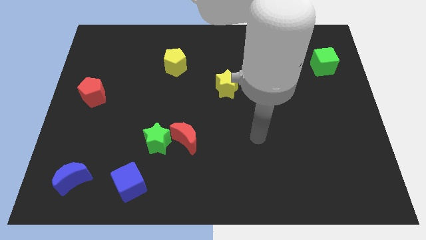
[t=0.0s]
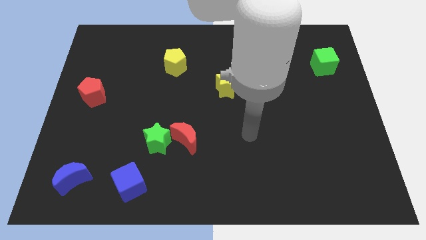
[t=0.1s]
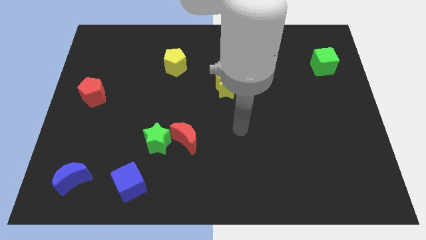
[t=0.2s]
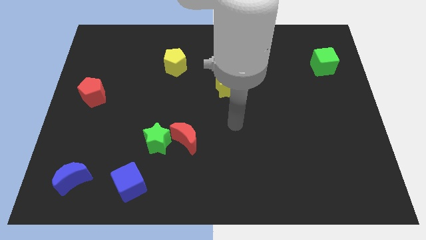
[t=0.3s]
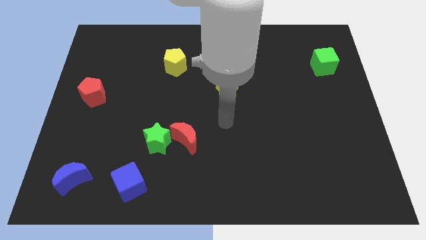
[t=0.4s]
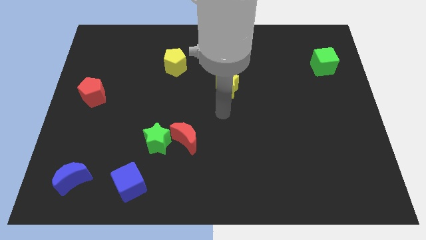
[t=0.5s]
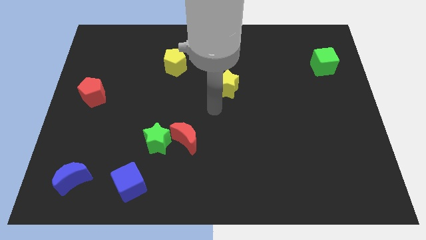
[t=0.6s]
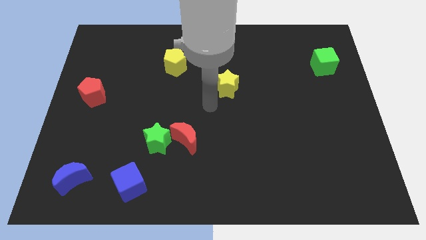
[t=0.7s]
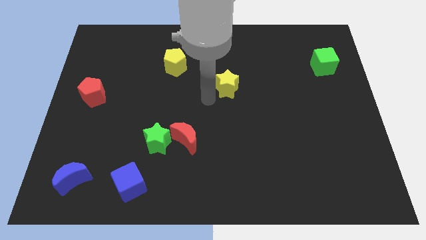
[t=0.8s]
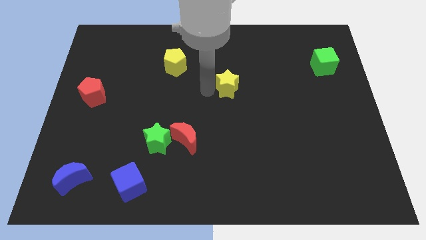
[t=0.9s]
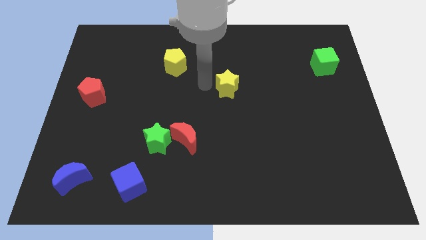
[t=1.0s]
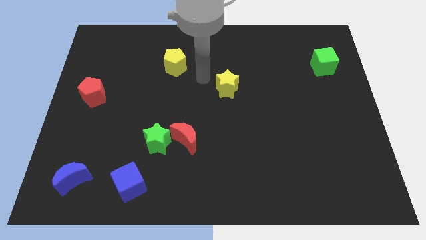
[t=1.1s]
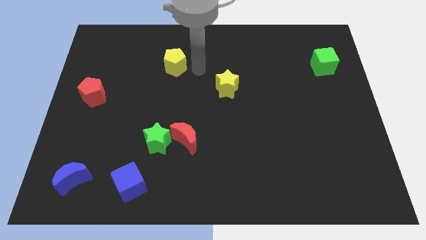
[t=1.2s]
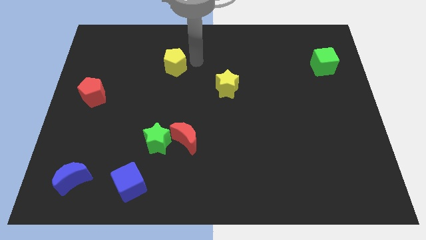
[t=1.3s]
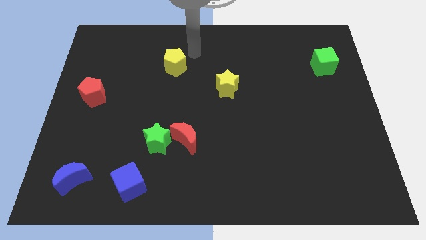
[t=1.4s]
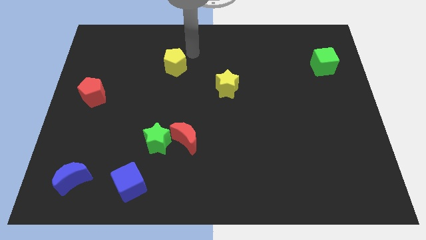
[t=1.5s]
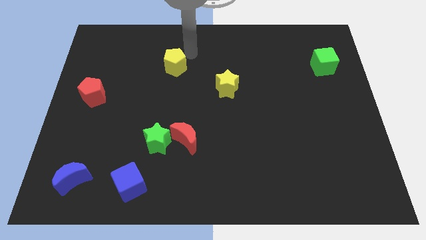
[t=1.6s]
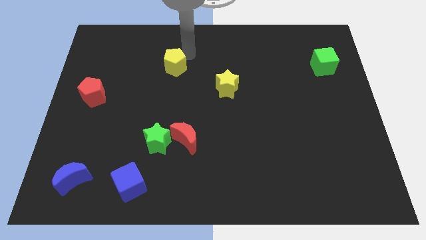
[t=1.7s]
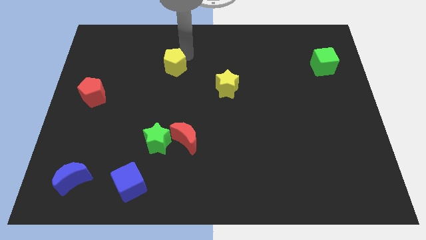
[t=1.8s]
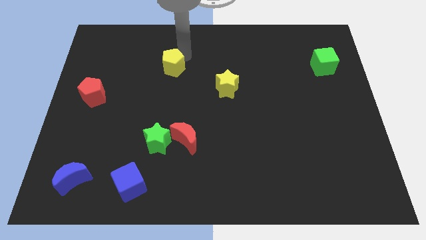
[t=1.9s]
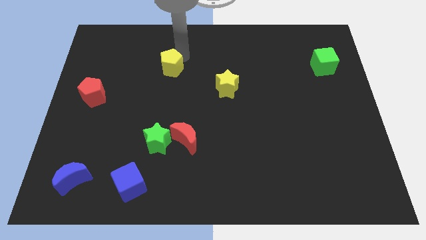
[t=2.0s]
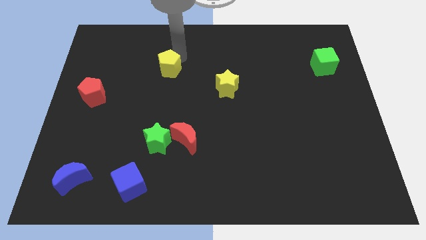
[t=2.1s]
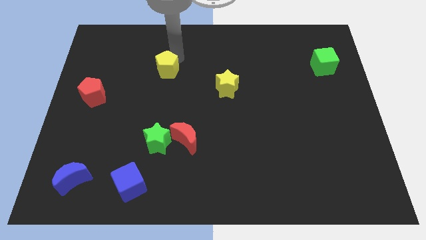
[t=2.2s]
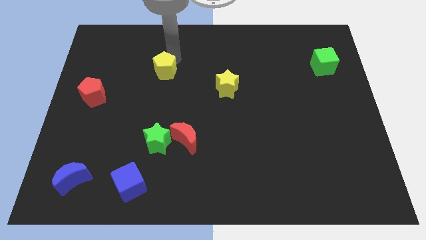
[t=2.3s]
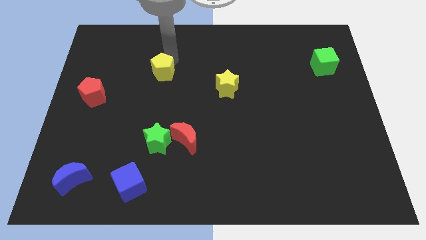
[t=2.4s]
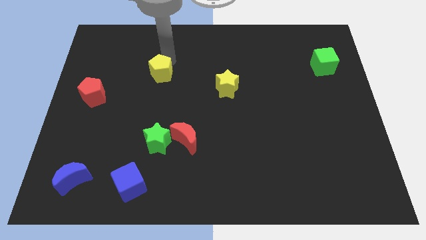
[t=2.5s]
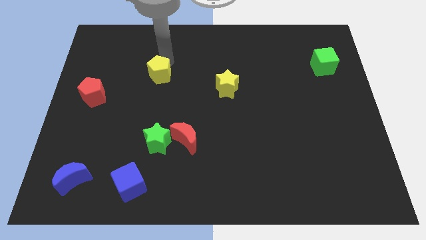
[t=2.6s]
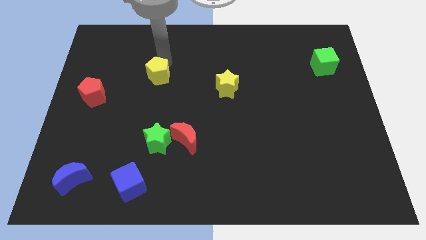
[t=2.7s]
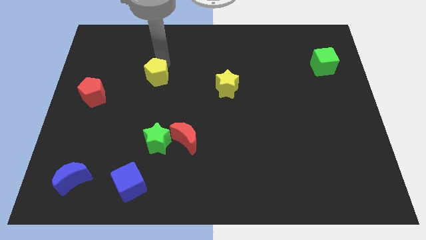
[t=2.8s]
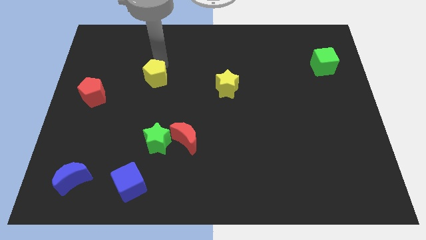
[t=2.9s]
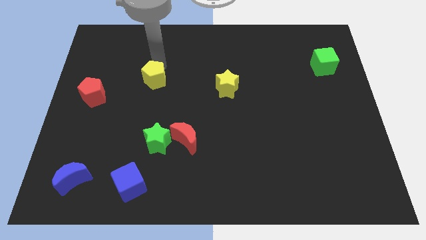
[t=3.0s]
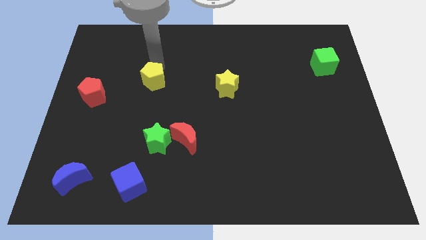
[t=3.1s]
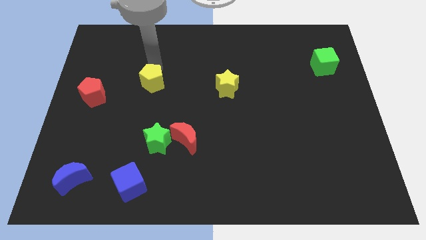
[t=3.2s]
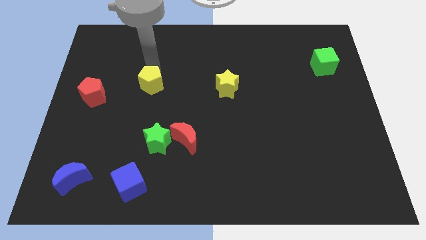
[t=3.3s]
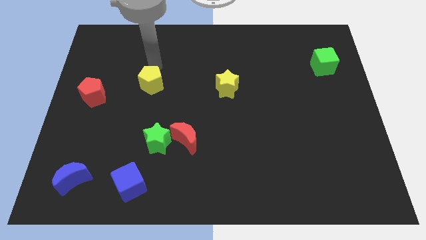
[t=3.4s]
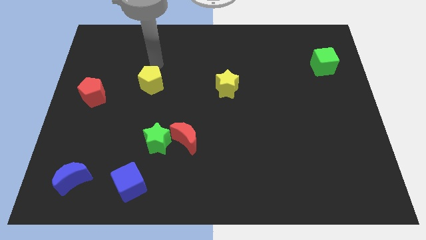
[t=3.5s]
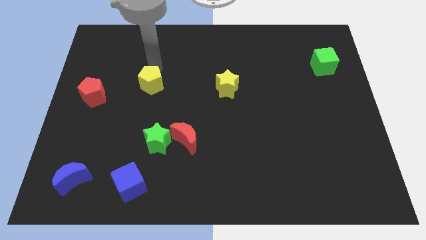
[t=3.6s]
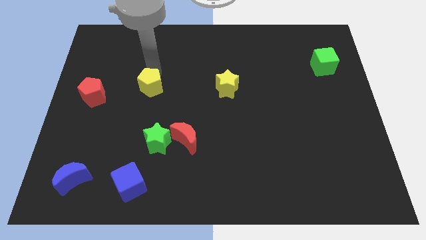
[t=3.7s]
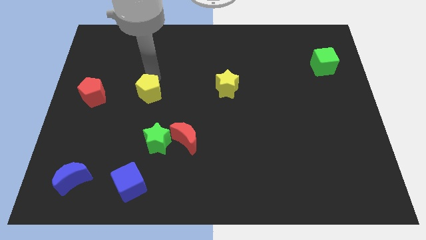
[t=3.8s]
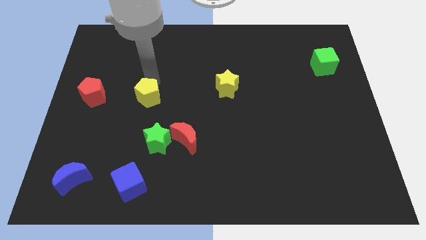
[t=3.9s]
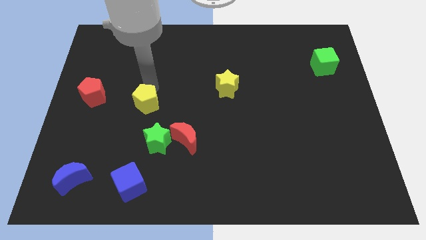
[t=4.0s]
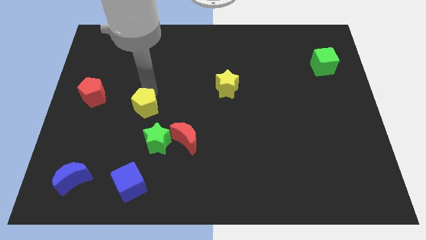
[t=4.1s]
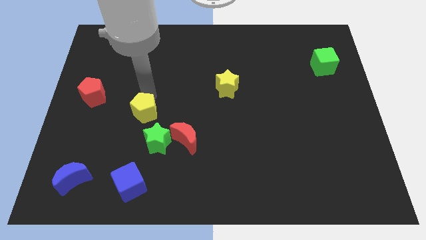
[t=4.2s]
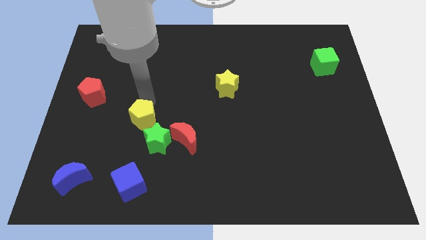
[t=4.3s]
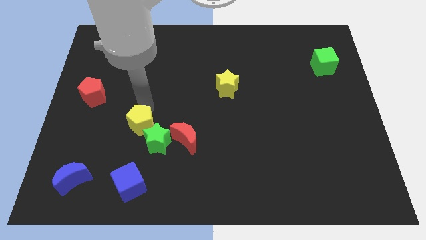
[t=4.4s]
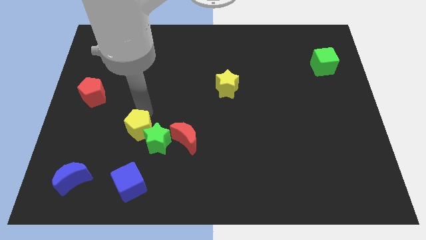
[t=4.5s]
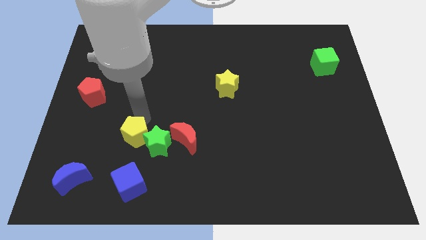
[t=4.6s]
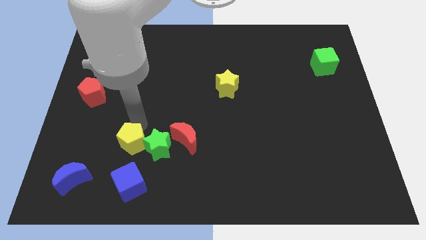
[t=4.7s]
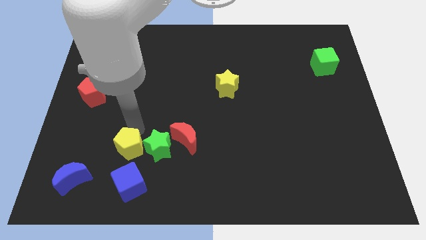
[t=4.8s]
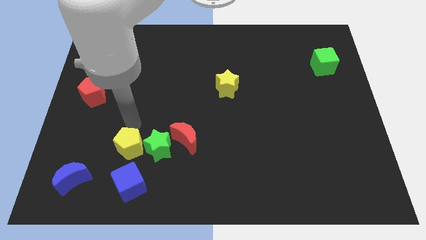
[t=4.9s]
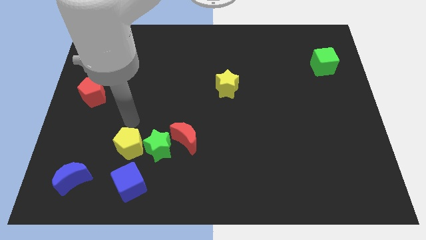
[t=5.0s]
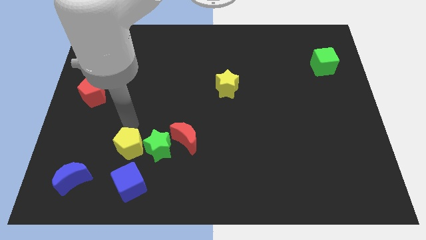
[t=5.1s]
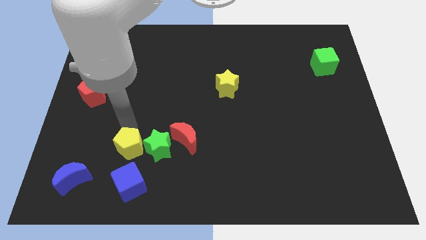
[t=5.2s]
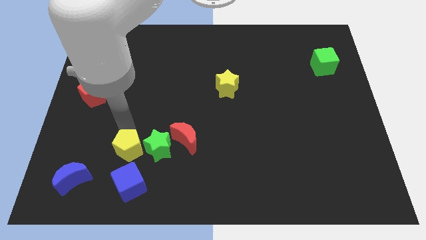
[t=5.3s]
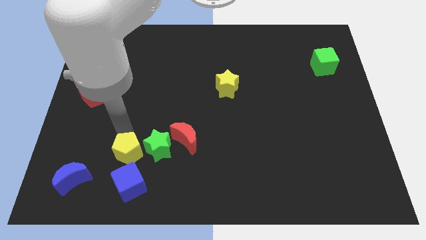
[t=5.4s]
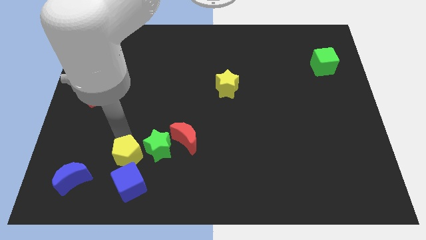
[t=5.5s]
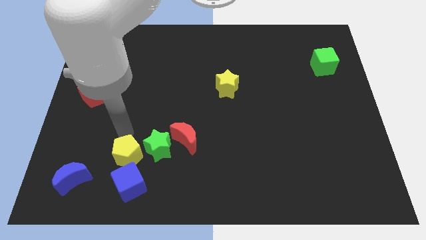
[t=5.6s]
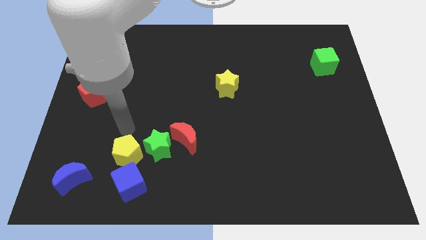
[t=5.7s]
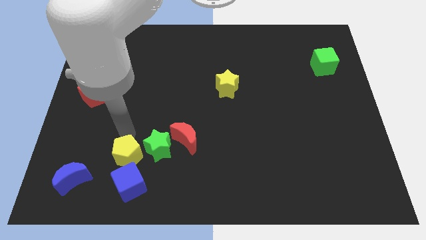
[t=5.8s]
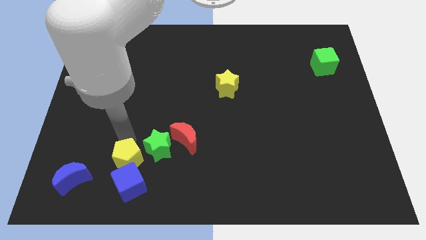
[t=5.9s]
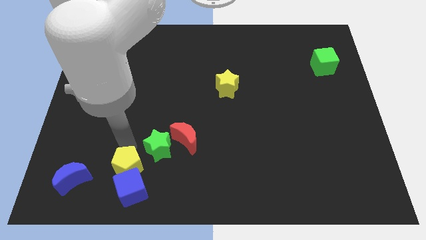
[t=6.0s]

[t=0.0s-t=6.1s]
slide the yellow pentagon towards the blue cube

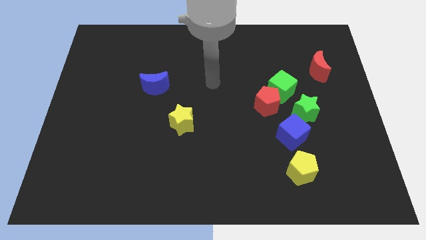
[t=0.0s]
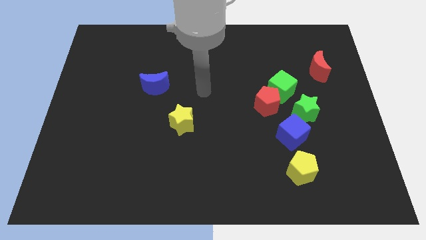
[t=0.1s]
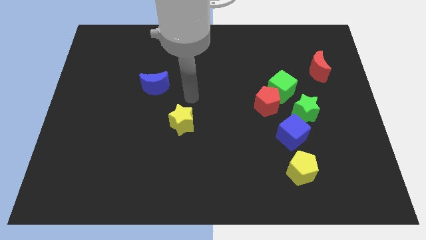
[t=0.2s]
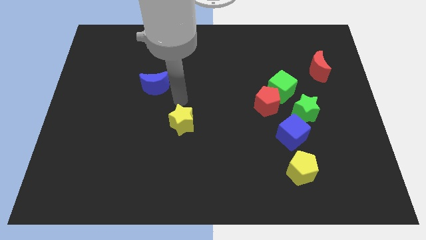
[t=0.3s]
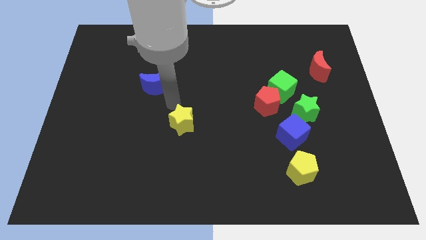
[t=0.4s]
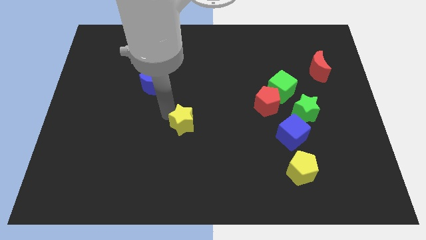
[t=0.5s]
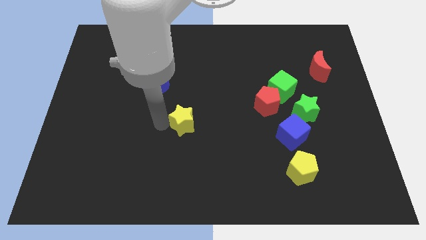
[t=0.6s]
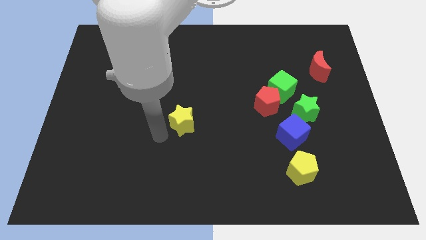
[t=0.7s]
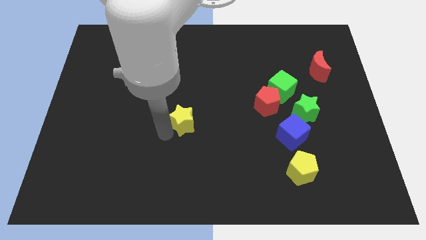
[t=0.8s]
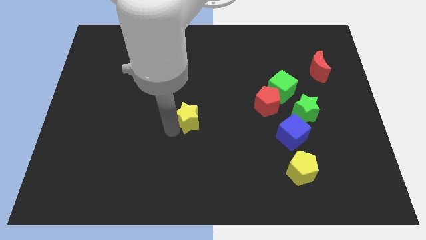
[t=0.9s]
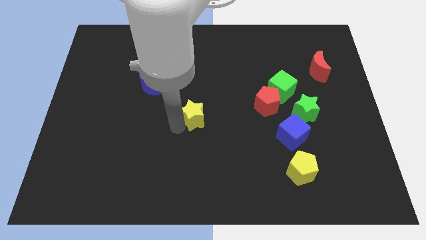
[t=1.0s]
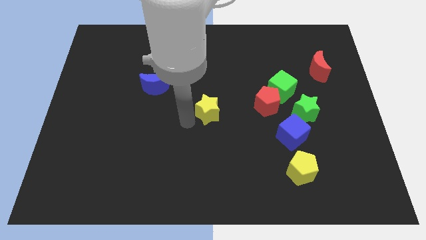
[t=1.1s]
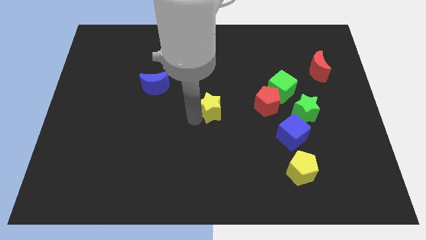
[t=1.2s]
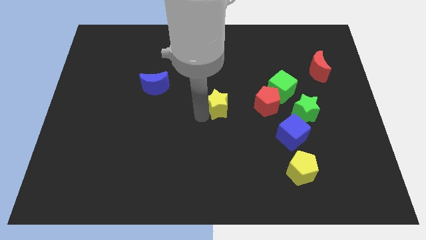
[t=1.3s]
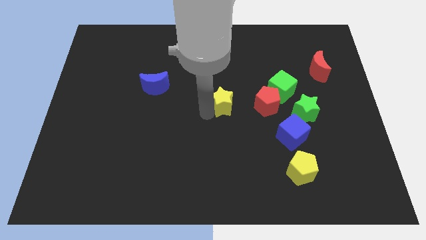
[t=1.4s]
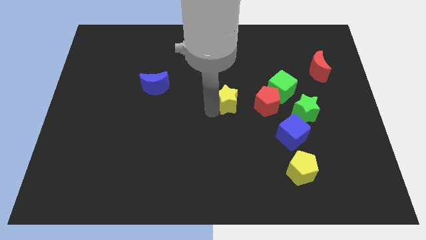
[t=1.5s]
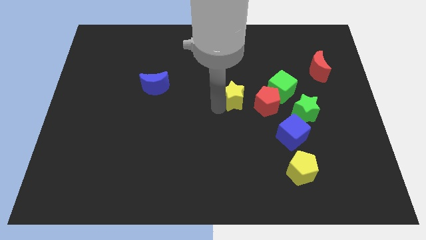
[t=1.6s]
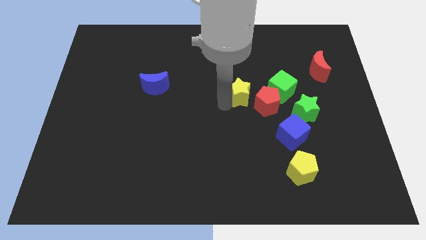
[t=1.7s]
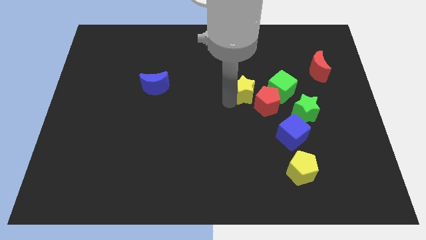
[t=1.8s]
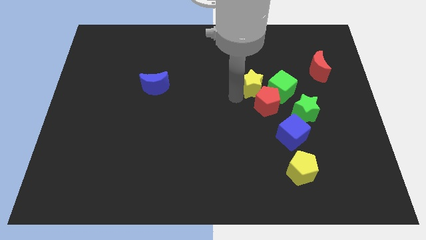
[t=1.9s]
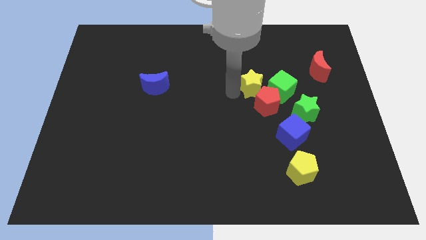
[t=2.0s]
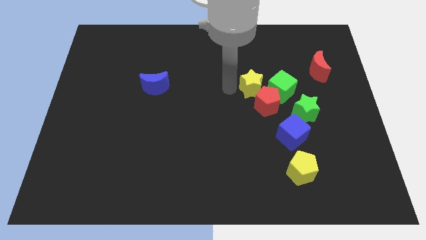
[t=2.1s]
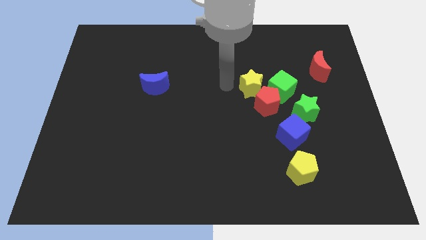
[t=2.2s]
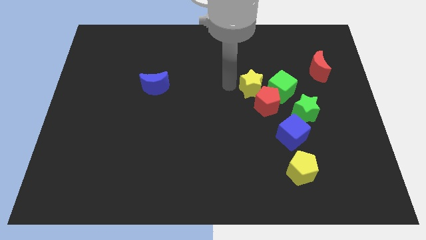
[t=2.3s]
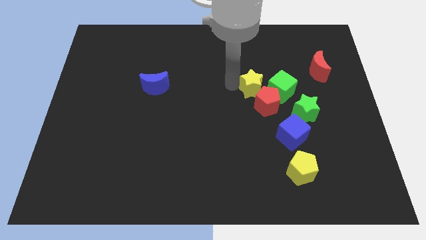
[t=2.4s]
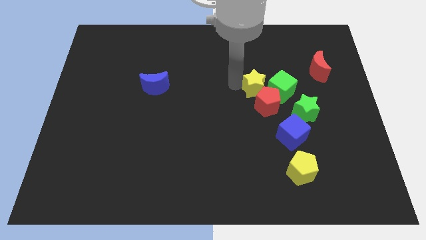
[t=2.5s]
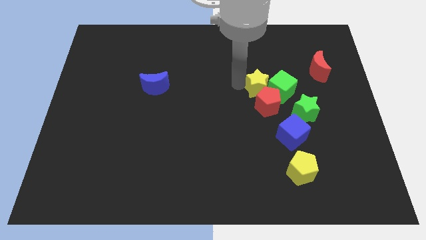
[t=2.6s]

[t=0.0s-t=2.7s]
move the yellow star to the green cube
